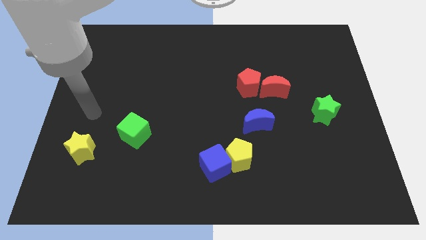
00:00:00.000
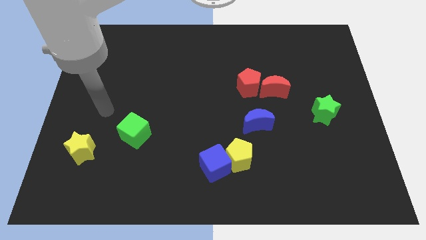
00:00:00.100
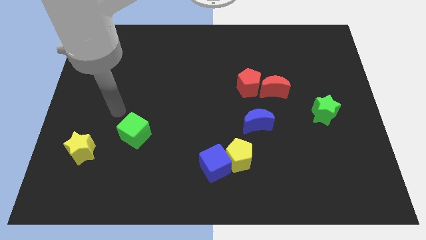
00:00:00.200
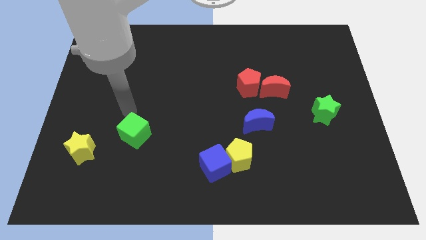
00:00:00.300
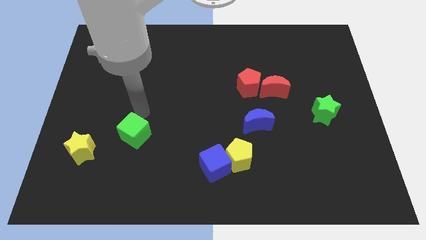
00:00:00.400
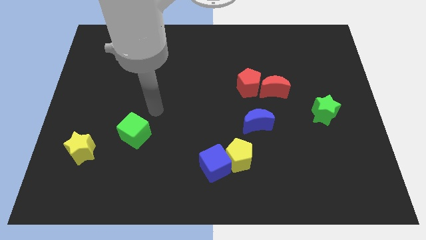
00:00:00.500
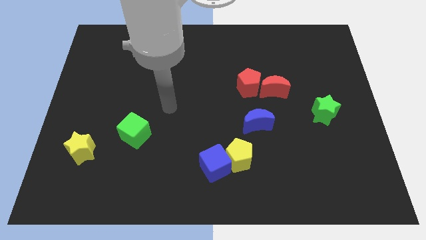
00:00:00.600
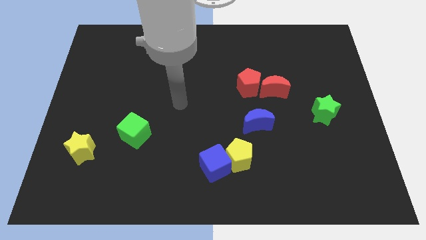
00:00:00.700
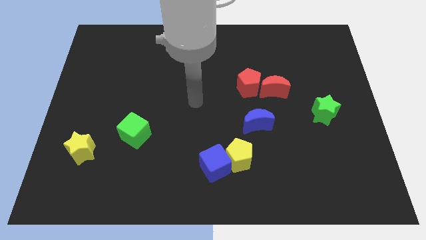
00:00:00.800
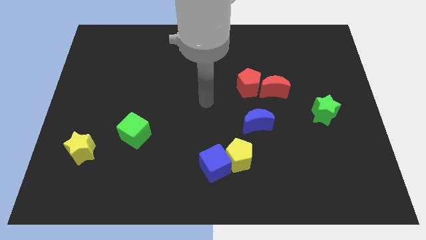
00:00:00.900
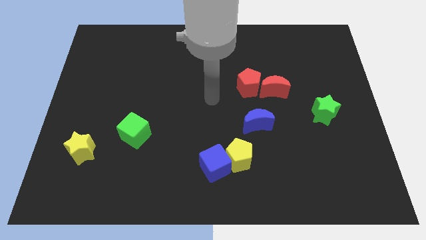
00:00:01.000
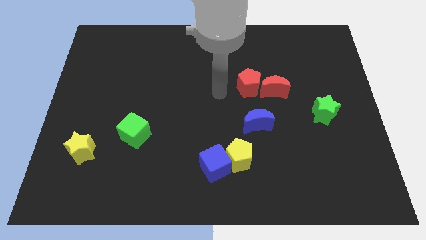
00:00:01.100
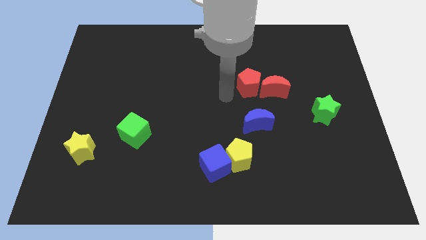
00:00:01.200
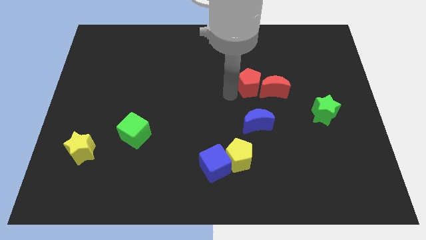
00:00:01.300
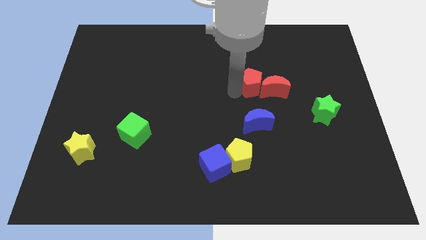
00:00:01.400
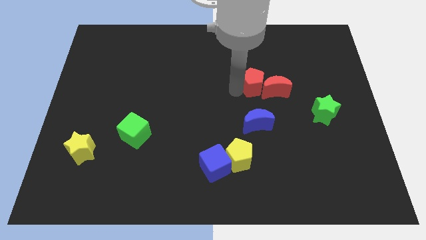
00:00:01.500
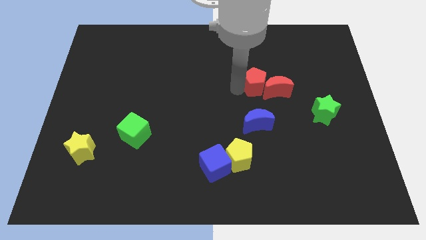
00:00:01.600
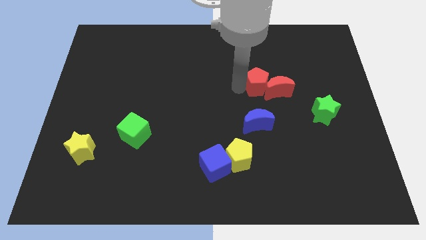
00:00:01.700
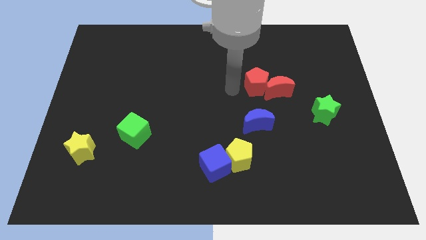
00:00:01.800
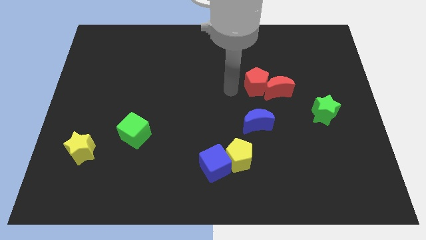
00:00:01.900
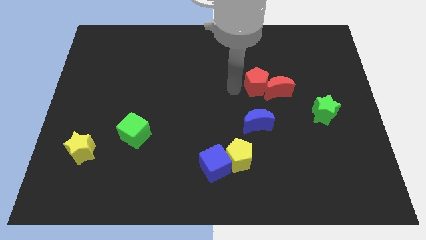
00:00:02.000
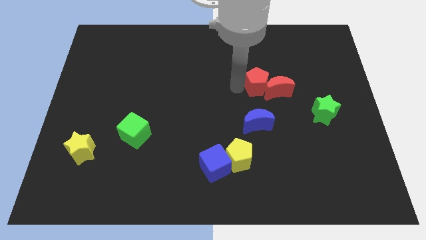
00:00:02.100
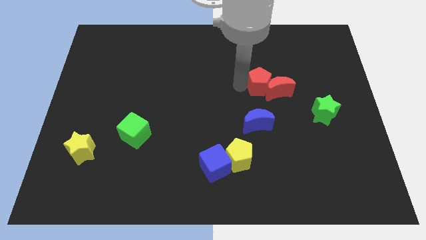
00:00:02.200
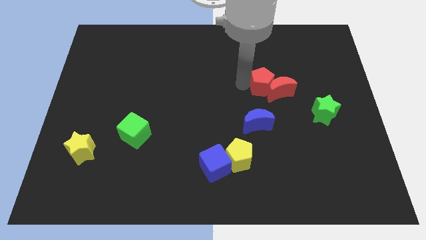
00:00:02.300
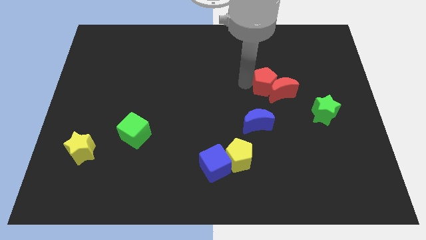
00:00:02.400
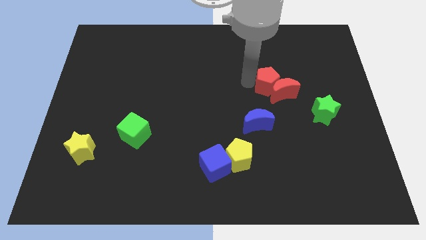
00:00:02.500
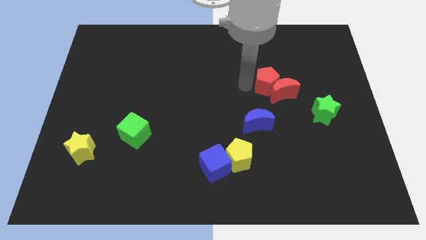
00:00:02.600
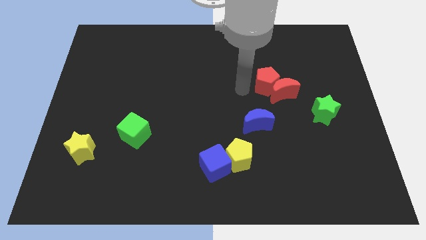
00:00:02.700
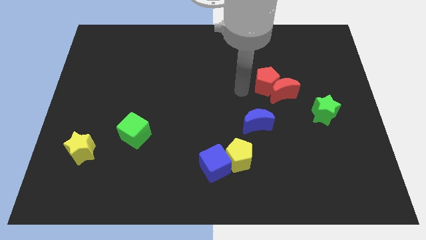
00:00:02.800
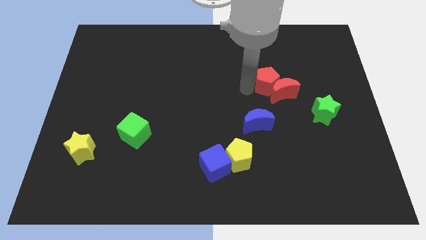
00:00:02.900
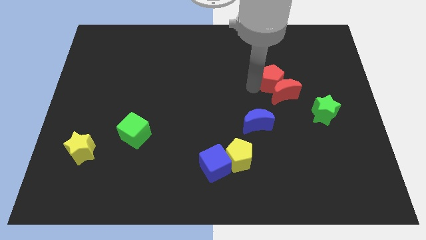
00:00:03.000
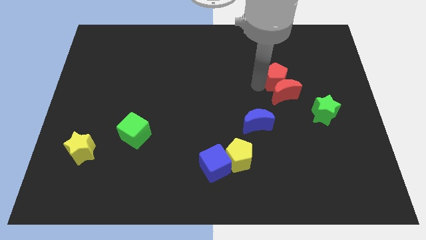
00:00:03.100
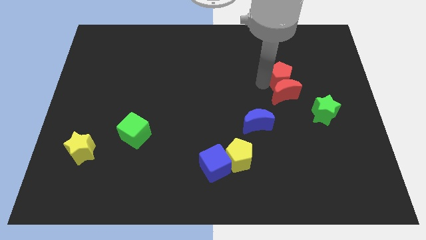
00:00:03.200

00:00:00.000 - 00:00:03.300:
slide the red pentagon somewhat to the right

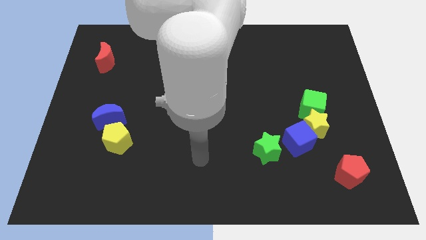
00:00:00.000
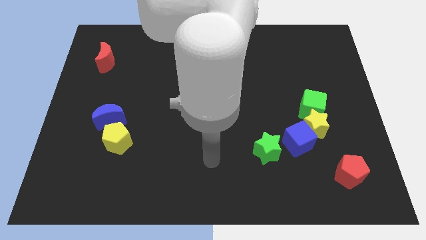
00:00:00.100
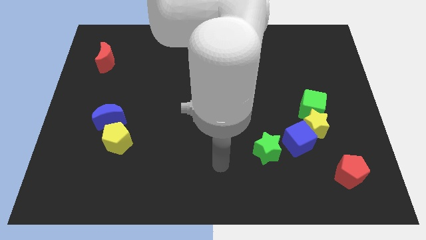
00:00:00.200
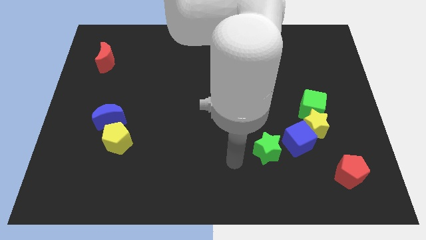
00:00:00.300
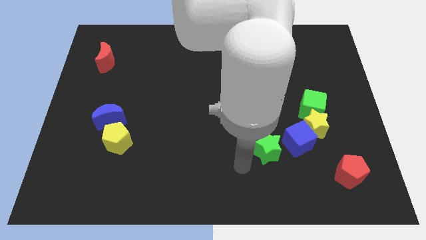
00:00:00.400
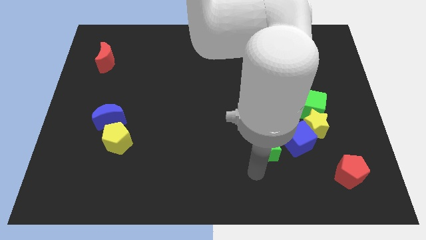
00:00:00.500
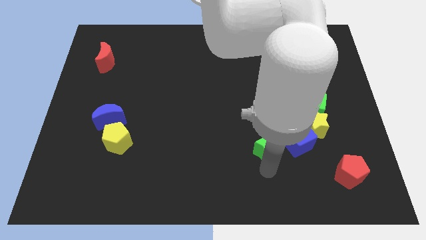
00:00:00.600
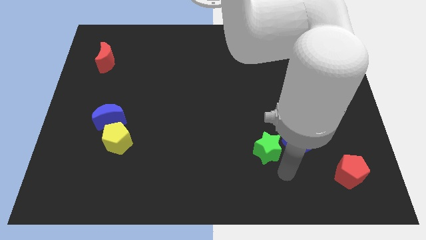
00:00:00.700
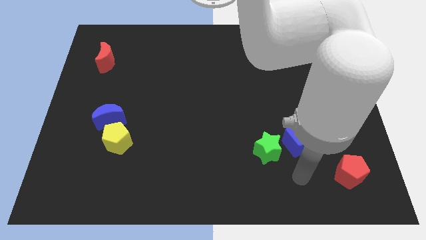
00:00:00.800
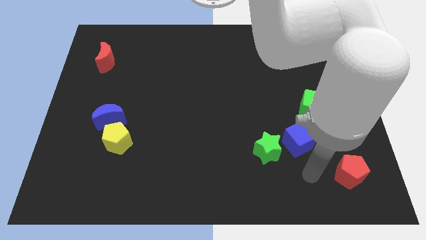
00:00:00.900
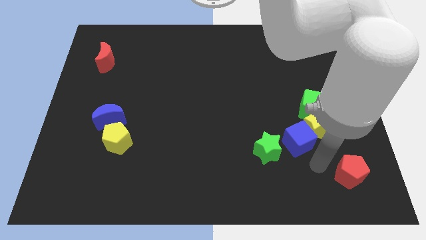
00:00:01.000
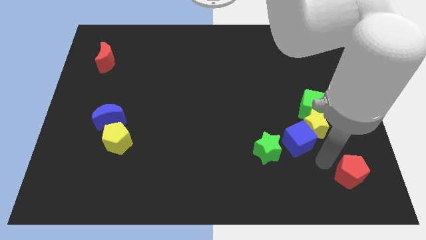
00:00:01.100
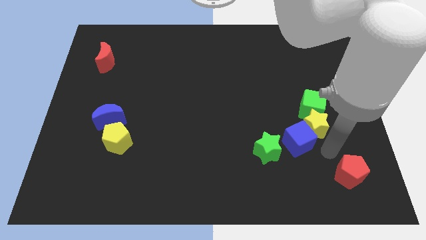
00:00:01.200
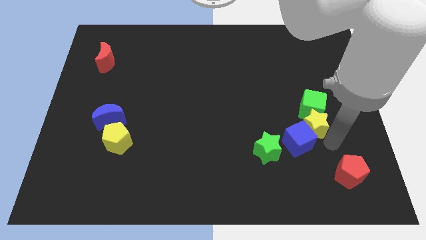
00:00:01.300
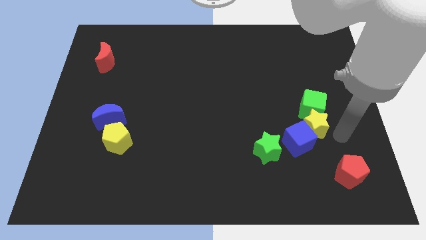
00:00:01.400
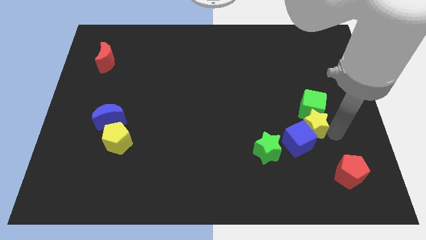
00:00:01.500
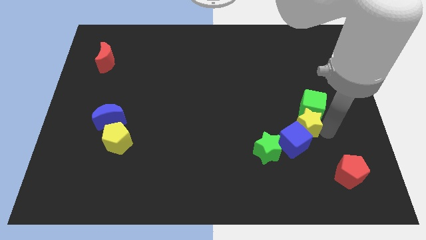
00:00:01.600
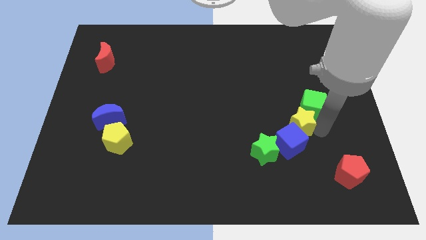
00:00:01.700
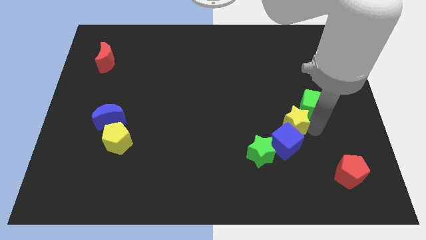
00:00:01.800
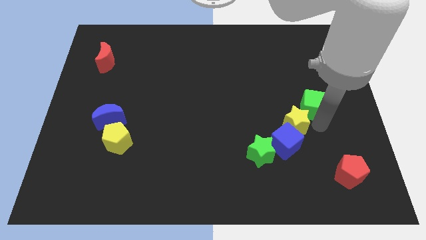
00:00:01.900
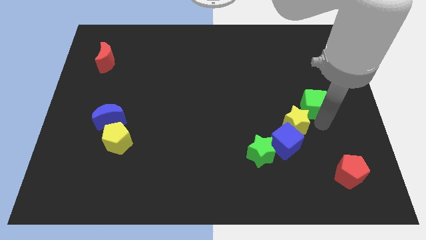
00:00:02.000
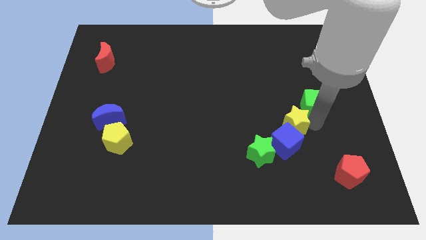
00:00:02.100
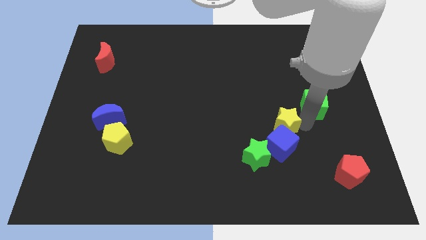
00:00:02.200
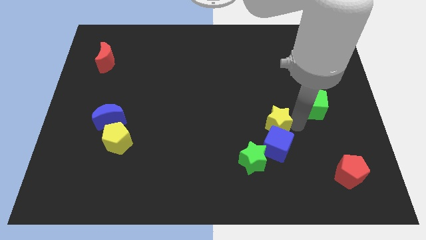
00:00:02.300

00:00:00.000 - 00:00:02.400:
push the yellow star somewhat to the left

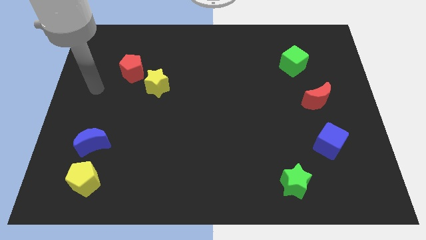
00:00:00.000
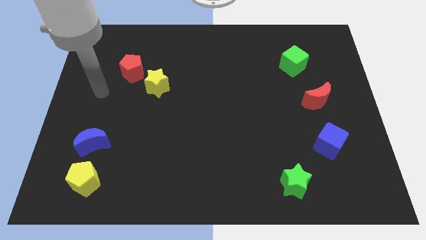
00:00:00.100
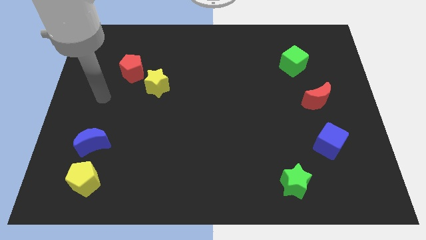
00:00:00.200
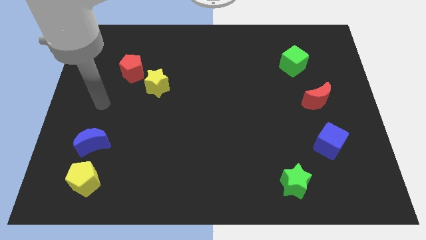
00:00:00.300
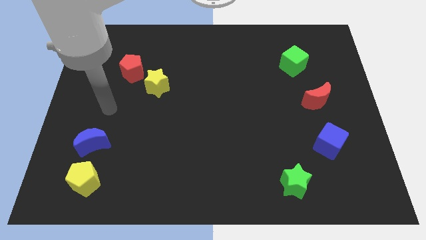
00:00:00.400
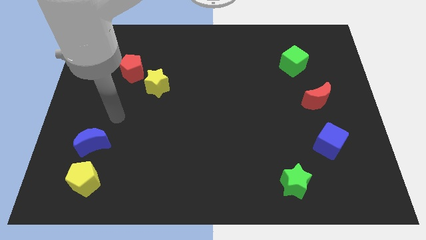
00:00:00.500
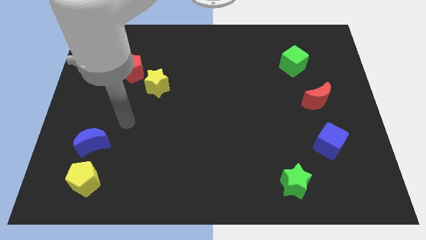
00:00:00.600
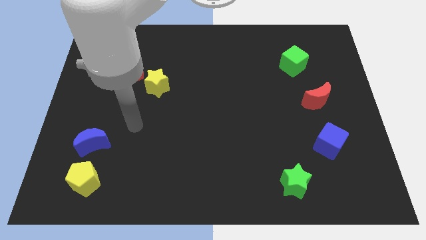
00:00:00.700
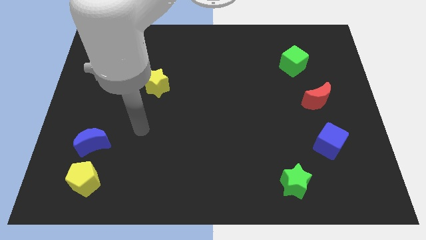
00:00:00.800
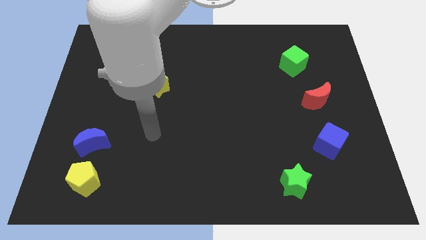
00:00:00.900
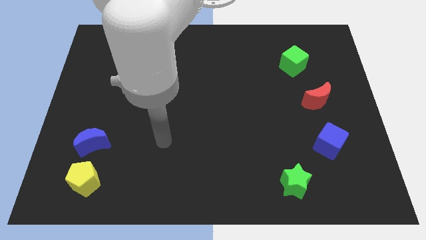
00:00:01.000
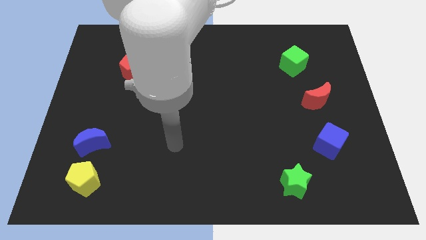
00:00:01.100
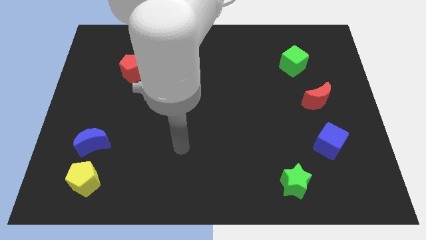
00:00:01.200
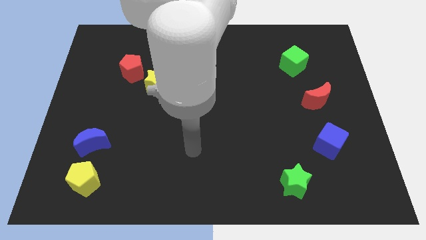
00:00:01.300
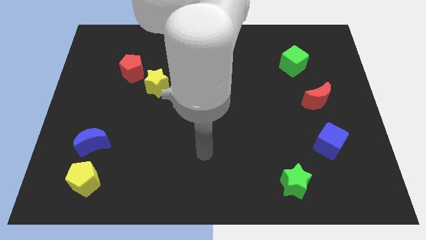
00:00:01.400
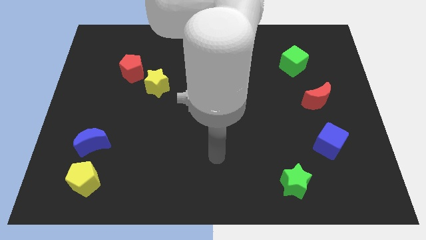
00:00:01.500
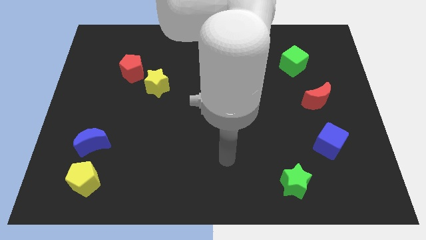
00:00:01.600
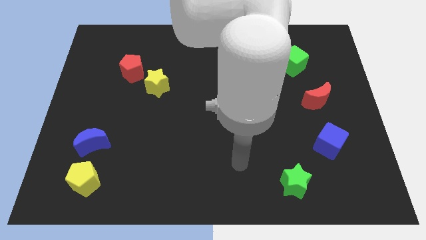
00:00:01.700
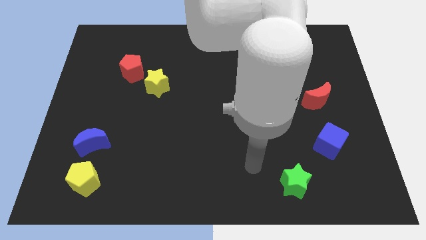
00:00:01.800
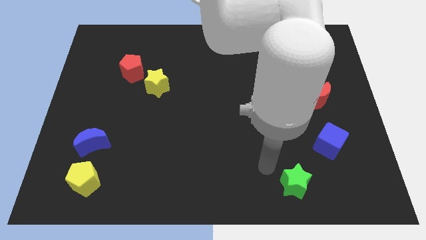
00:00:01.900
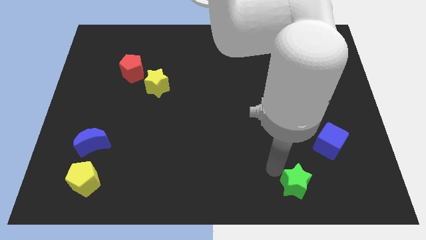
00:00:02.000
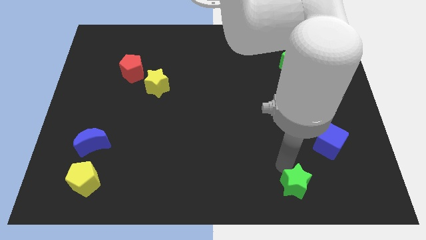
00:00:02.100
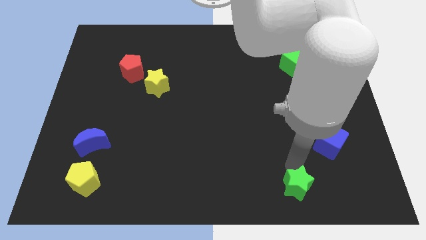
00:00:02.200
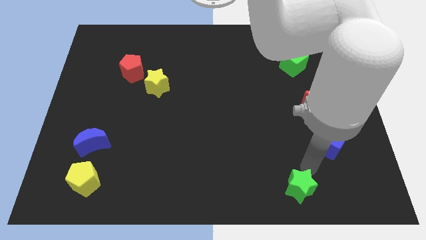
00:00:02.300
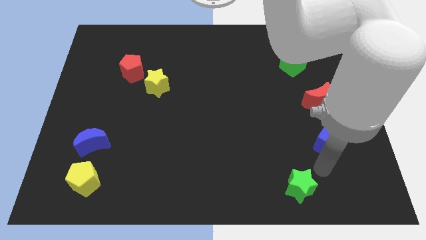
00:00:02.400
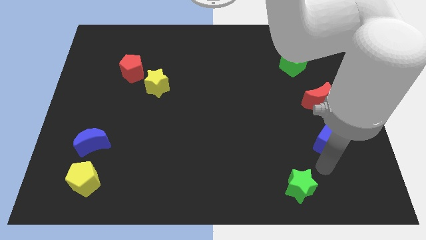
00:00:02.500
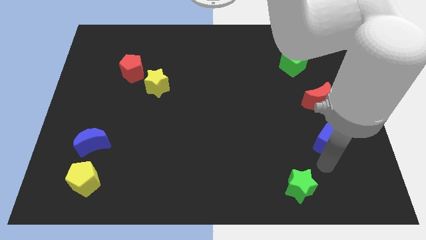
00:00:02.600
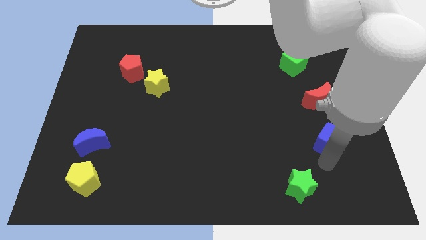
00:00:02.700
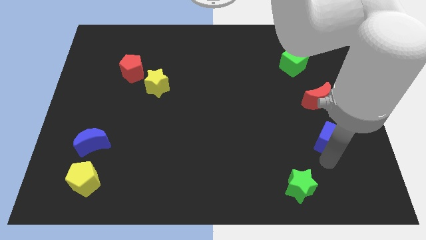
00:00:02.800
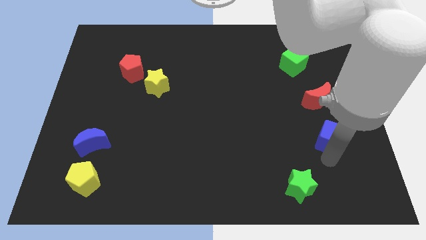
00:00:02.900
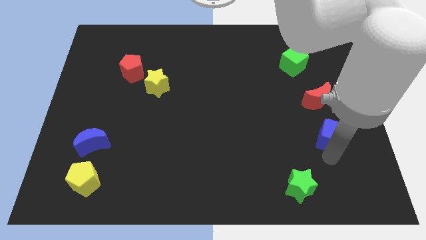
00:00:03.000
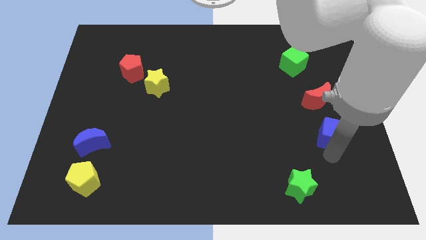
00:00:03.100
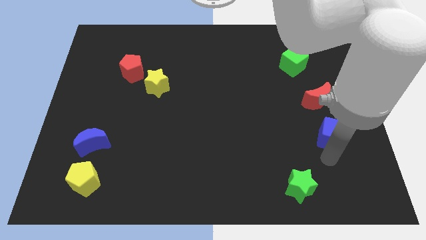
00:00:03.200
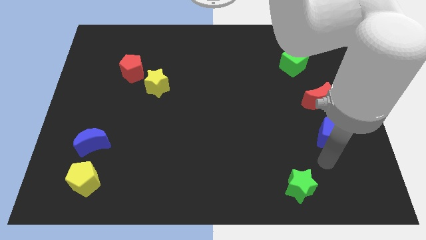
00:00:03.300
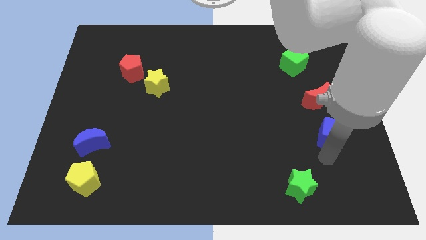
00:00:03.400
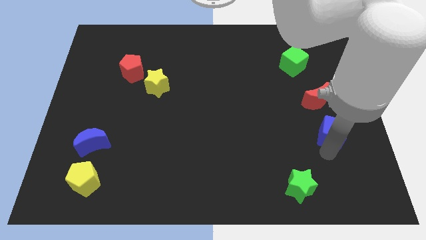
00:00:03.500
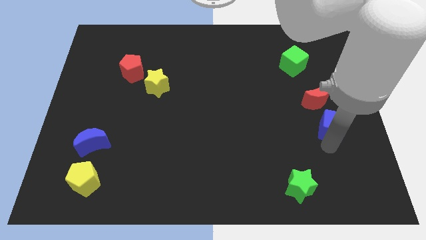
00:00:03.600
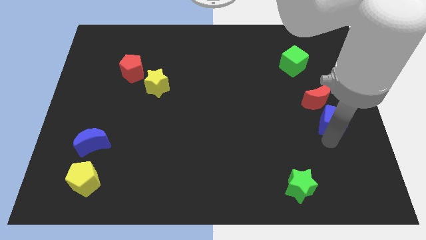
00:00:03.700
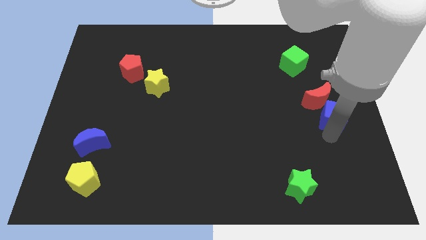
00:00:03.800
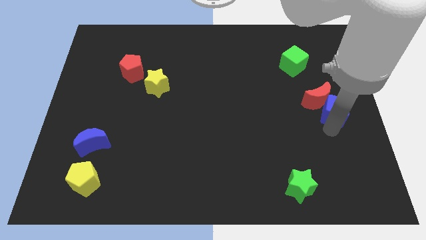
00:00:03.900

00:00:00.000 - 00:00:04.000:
slightly slide the blue cube upwards
